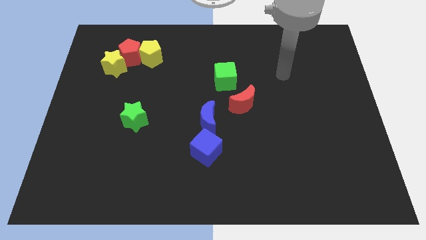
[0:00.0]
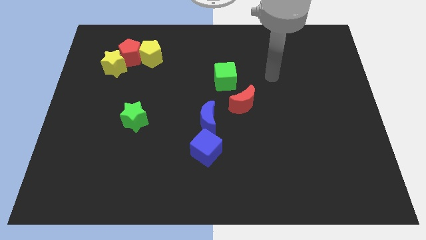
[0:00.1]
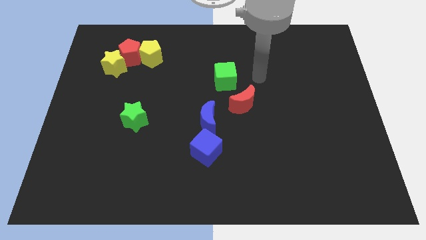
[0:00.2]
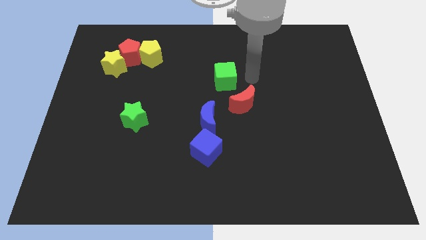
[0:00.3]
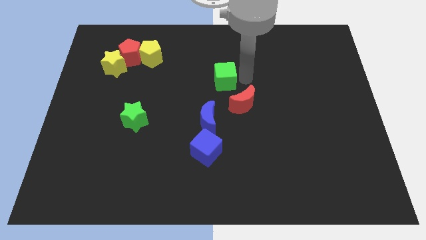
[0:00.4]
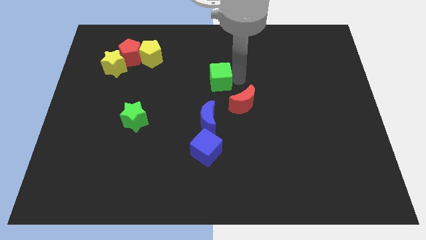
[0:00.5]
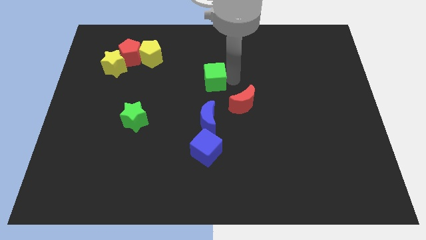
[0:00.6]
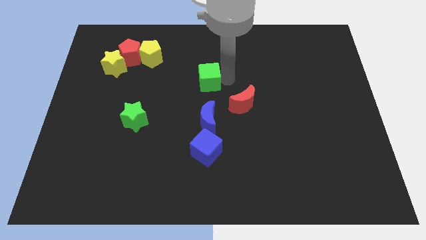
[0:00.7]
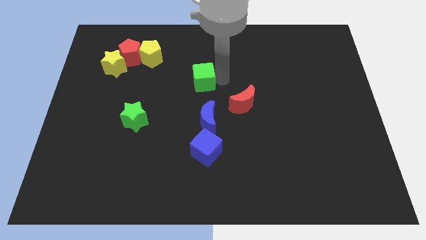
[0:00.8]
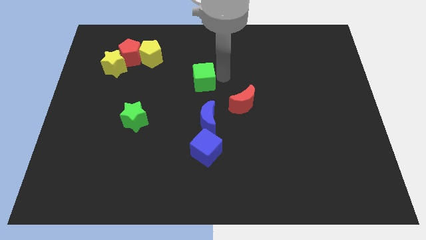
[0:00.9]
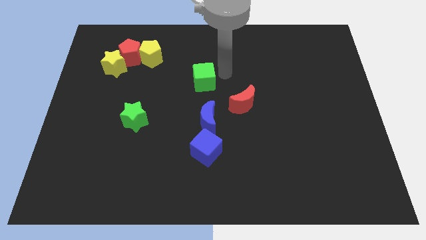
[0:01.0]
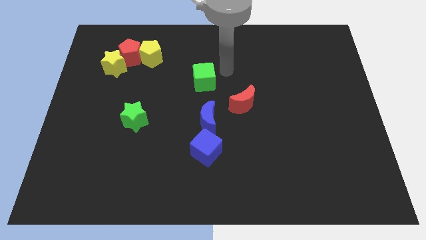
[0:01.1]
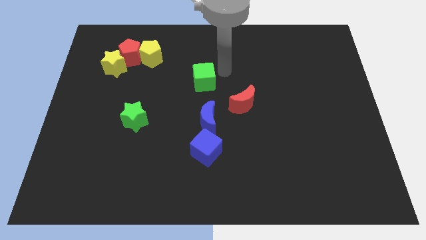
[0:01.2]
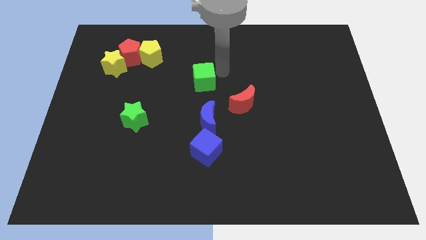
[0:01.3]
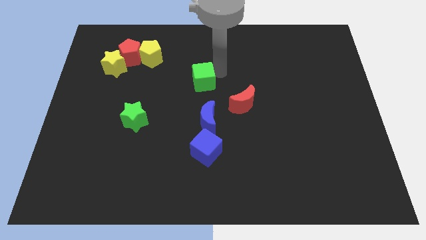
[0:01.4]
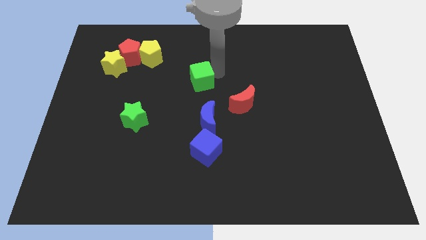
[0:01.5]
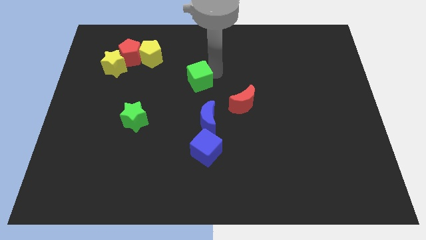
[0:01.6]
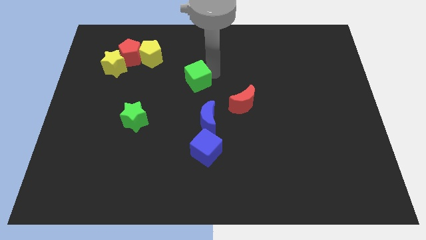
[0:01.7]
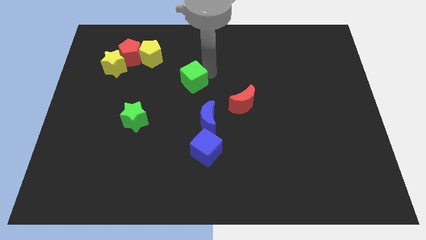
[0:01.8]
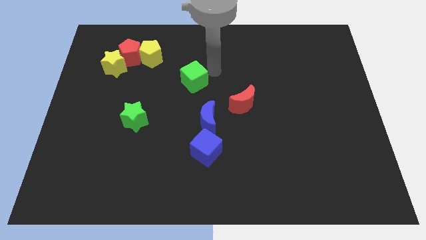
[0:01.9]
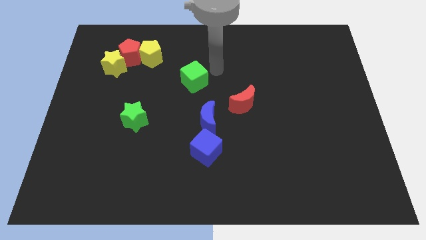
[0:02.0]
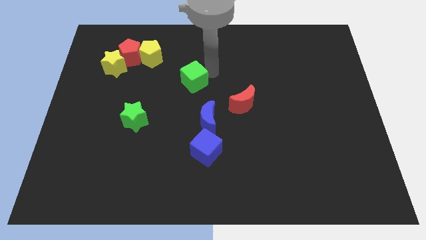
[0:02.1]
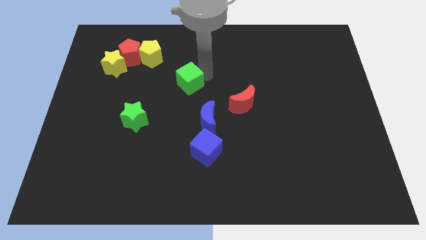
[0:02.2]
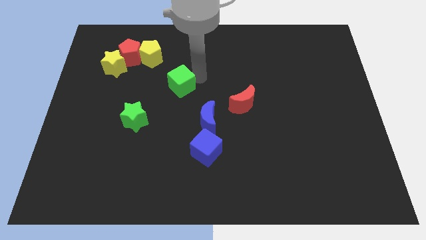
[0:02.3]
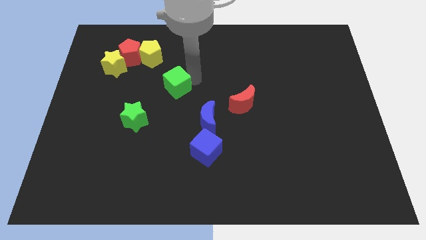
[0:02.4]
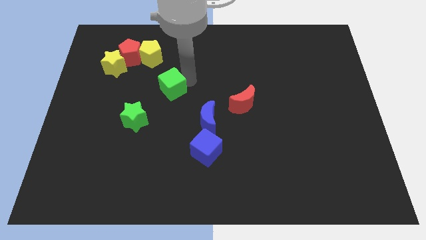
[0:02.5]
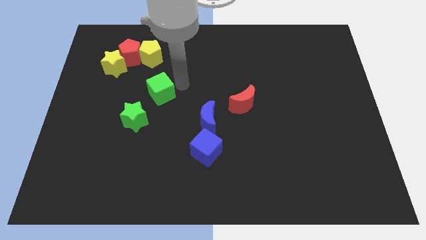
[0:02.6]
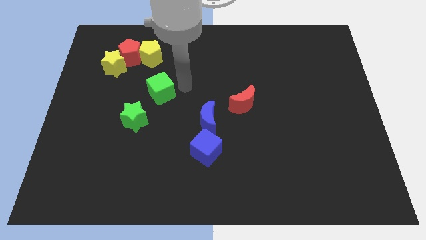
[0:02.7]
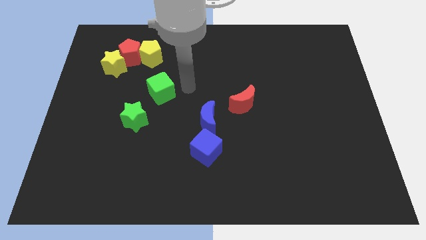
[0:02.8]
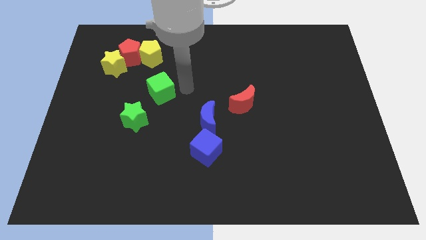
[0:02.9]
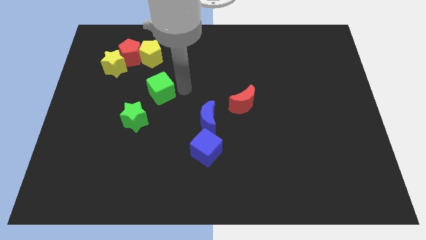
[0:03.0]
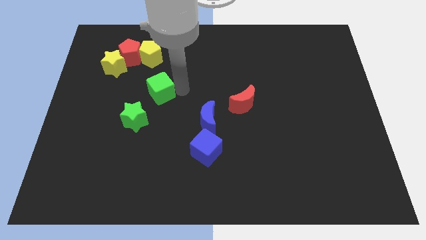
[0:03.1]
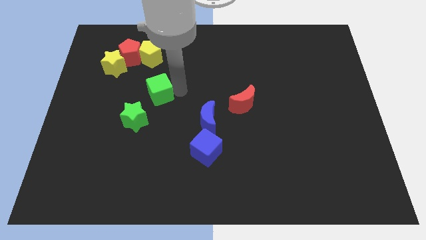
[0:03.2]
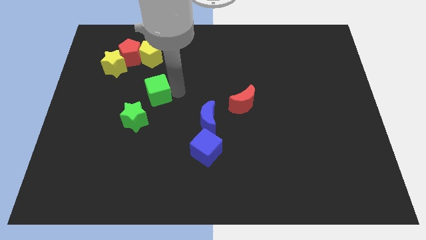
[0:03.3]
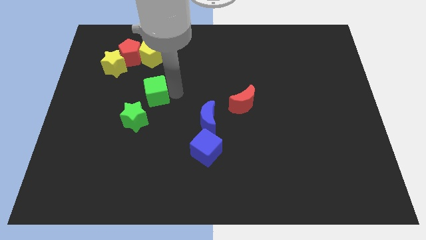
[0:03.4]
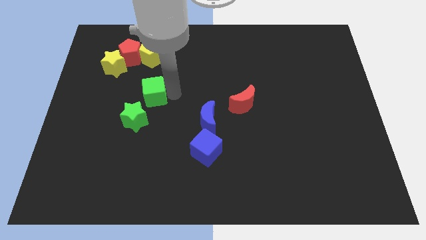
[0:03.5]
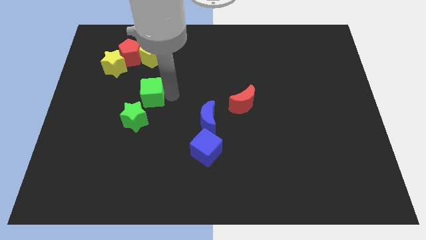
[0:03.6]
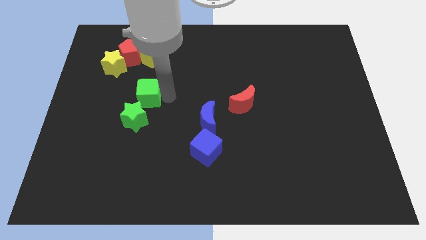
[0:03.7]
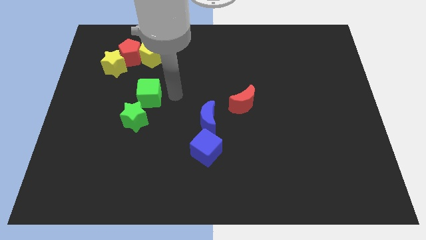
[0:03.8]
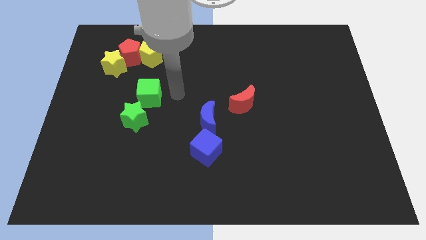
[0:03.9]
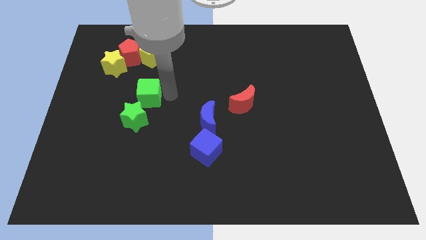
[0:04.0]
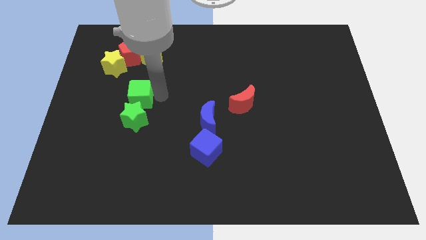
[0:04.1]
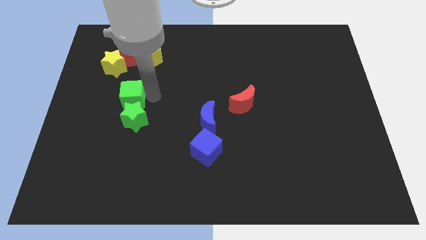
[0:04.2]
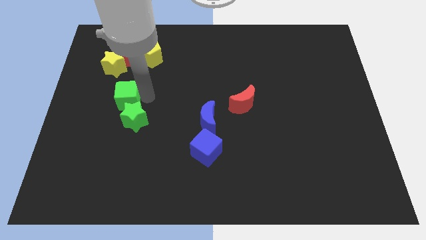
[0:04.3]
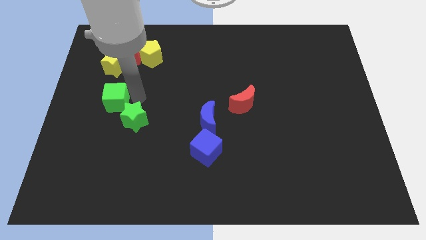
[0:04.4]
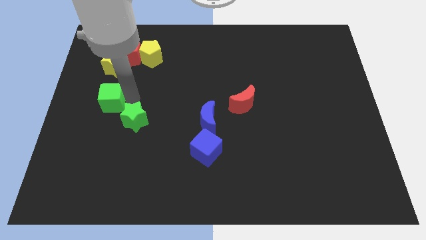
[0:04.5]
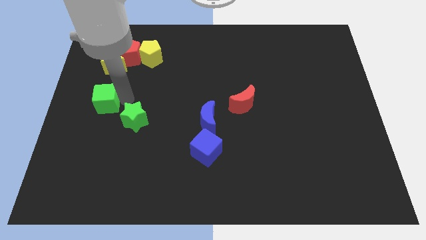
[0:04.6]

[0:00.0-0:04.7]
move the green cube to the left side

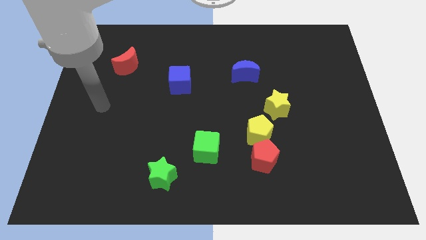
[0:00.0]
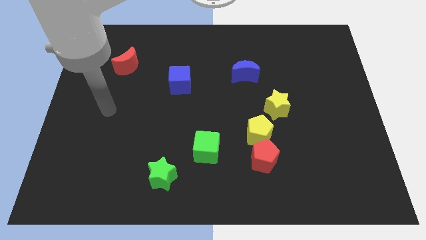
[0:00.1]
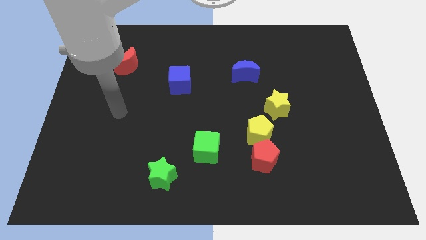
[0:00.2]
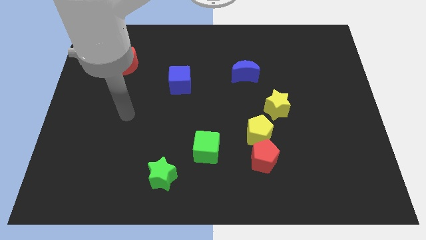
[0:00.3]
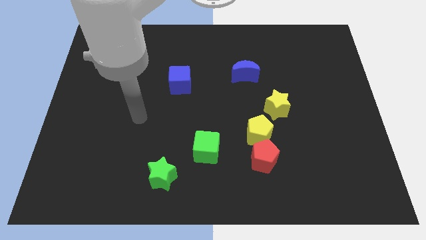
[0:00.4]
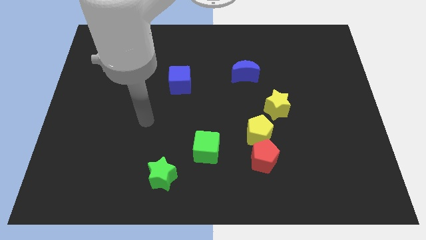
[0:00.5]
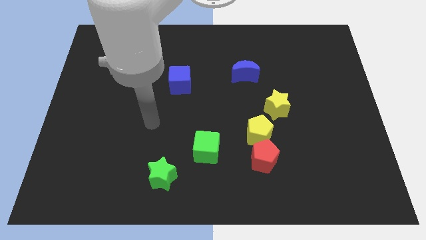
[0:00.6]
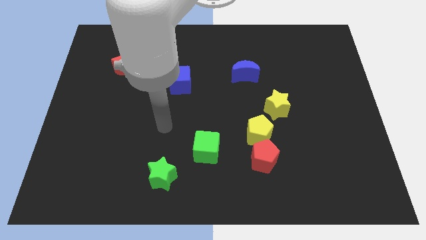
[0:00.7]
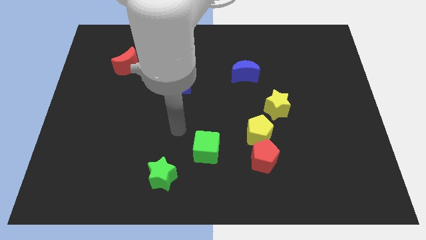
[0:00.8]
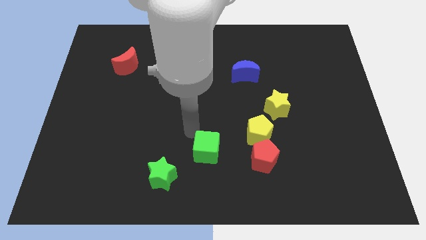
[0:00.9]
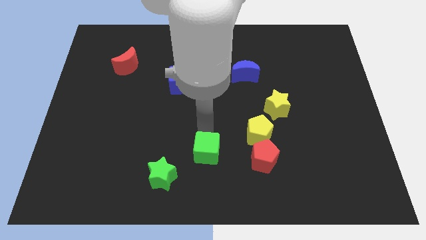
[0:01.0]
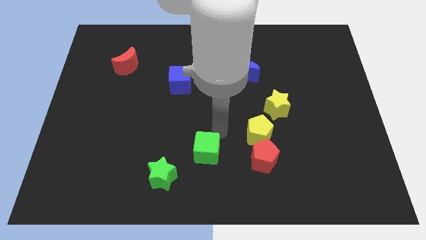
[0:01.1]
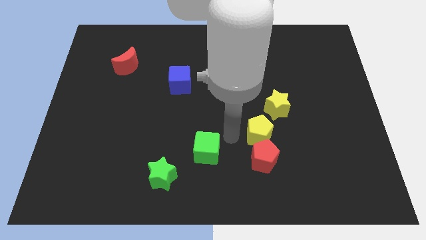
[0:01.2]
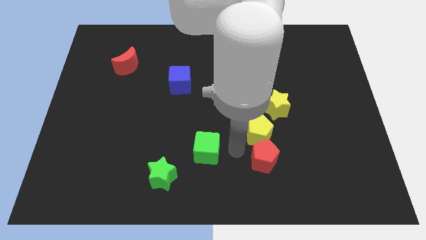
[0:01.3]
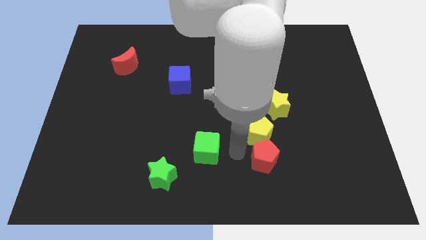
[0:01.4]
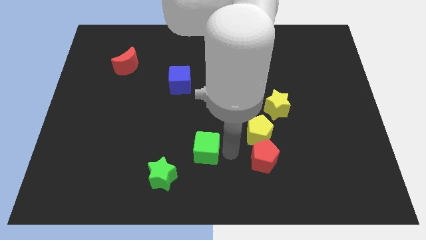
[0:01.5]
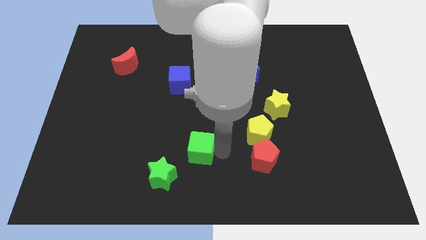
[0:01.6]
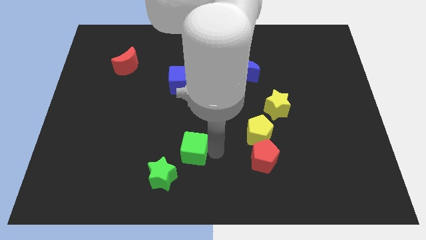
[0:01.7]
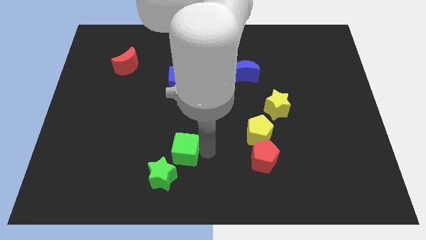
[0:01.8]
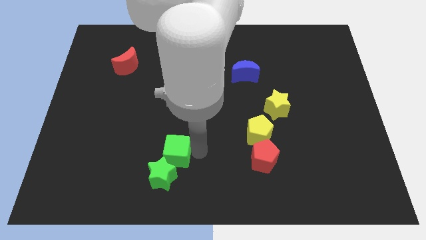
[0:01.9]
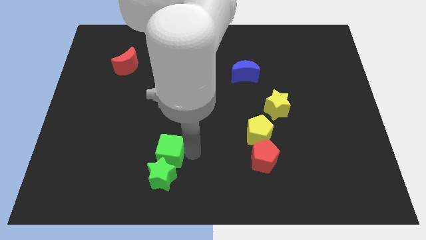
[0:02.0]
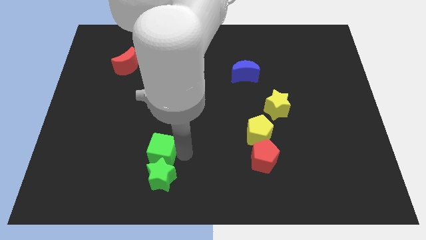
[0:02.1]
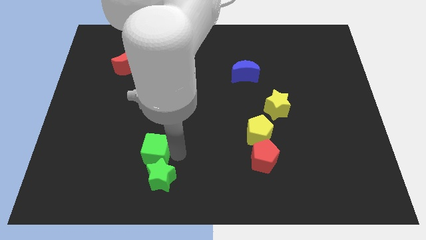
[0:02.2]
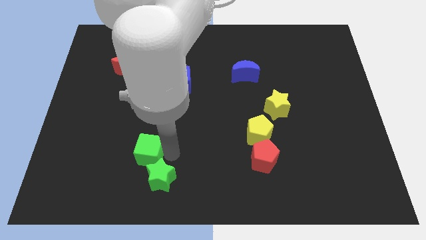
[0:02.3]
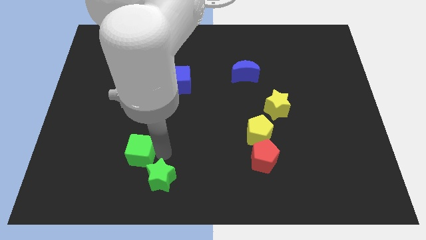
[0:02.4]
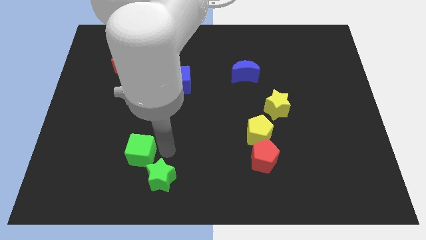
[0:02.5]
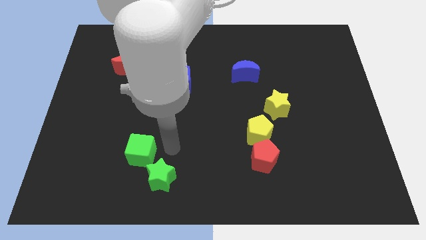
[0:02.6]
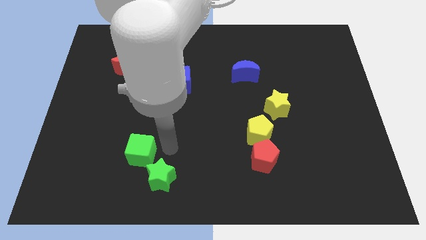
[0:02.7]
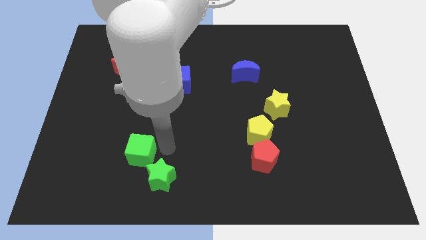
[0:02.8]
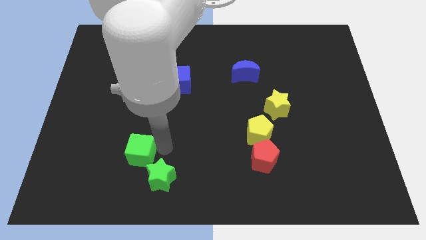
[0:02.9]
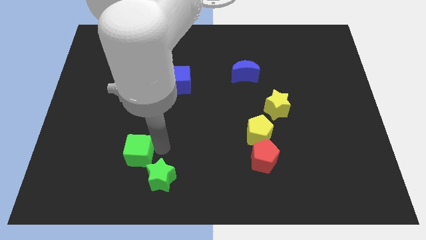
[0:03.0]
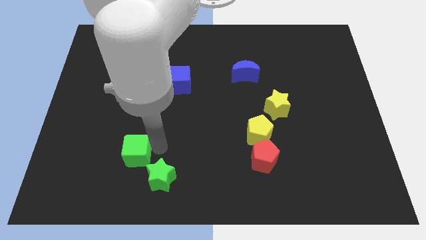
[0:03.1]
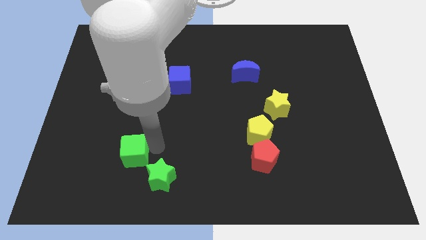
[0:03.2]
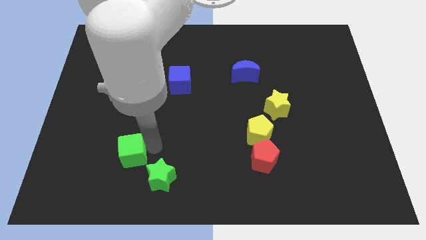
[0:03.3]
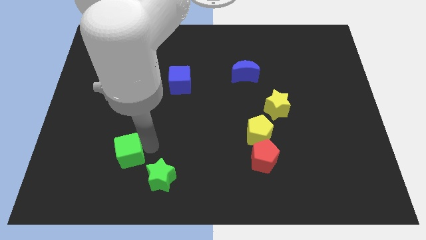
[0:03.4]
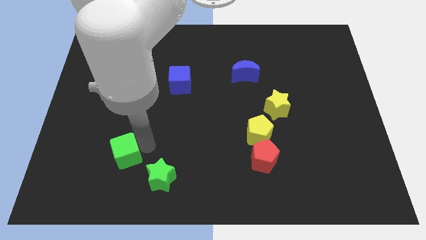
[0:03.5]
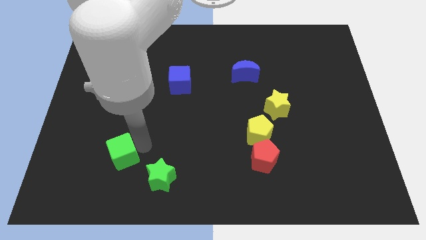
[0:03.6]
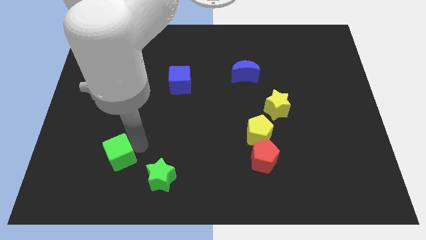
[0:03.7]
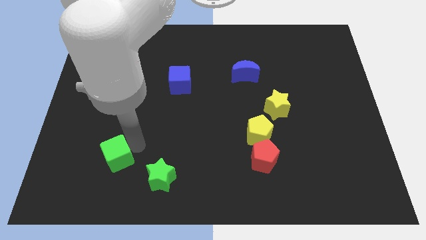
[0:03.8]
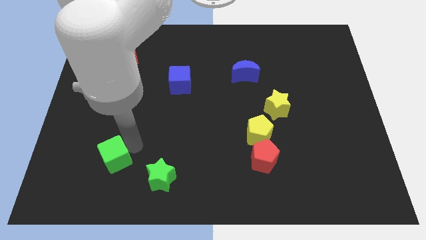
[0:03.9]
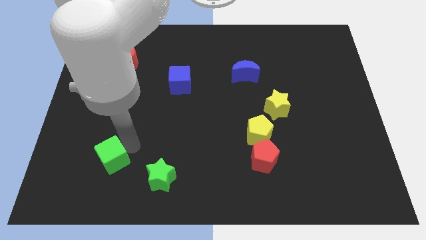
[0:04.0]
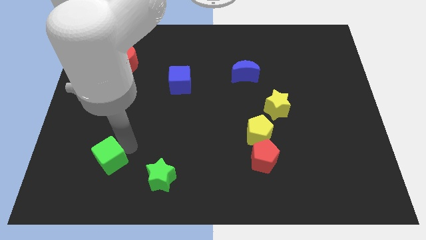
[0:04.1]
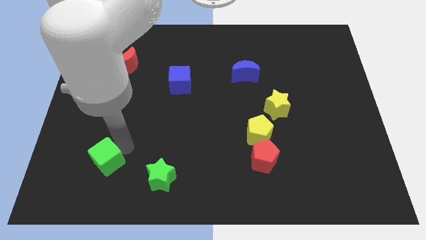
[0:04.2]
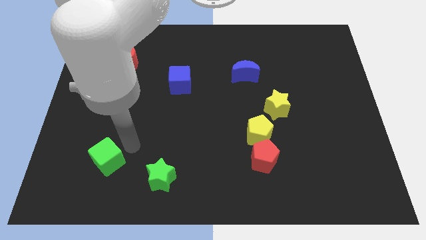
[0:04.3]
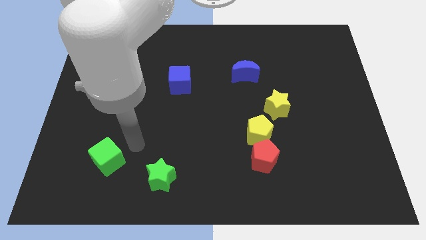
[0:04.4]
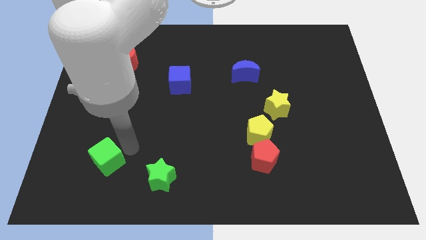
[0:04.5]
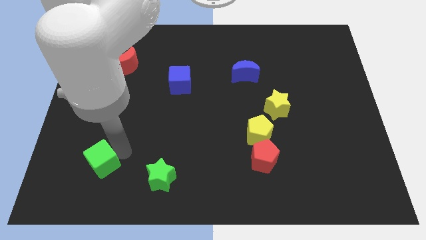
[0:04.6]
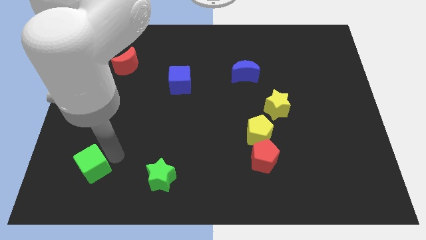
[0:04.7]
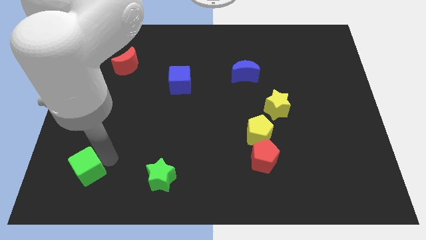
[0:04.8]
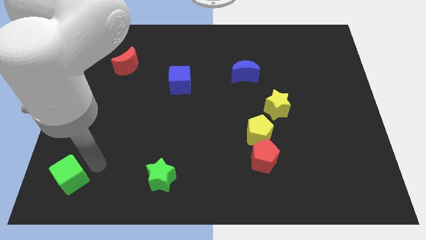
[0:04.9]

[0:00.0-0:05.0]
move the green cube to the bottom left corner
